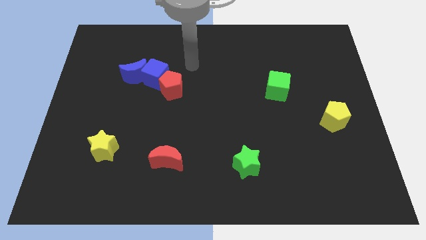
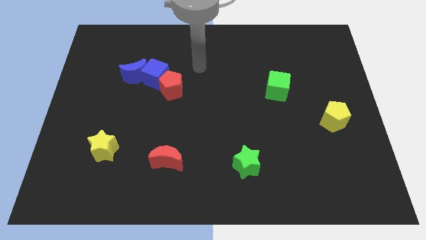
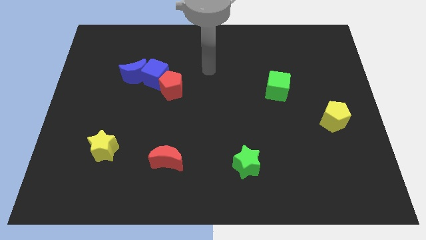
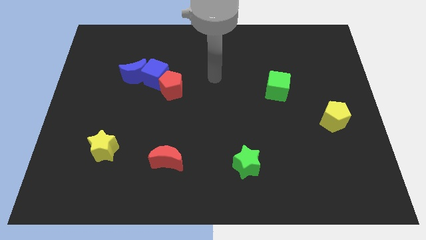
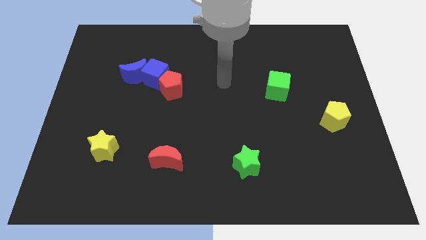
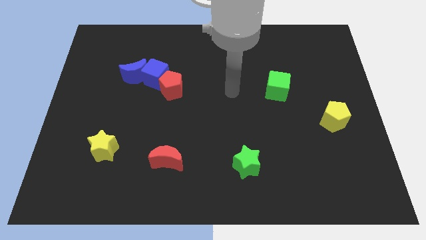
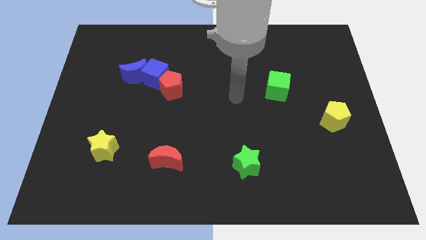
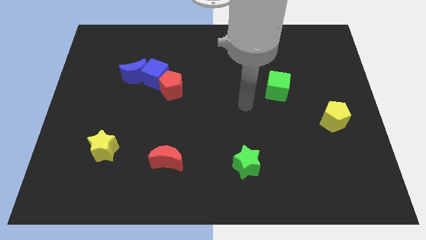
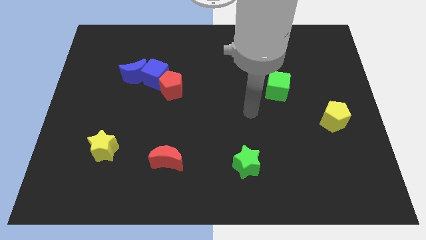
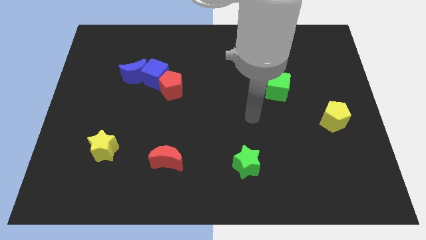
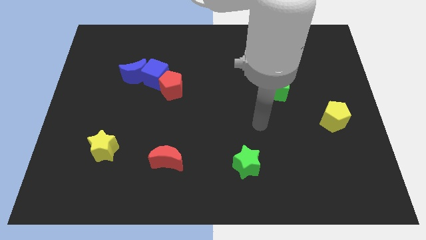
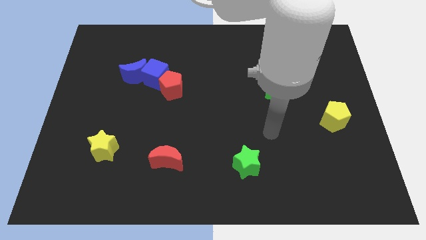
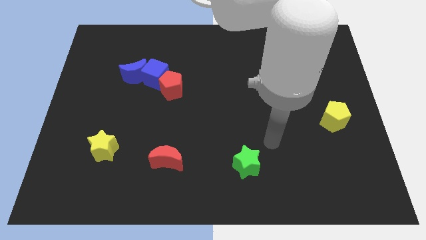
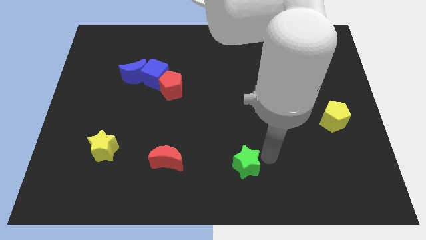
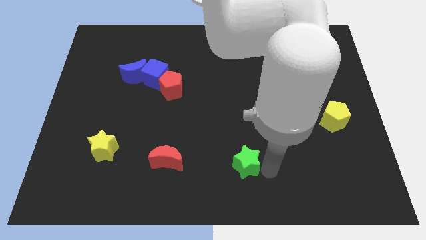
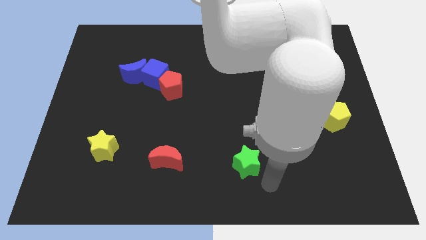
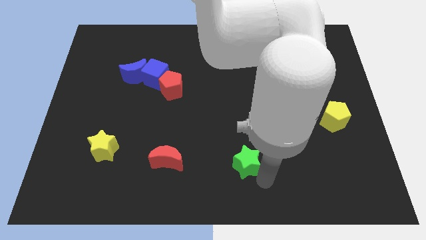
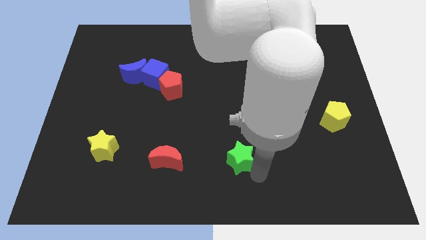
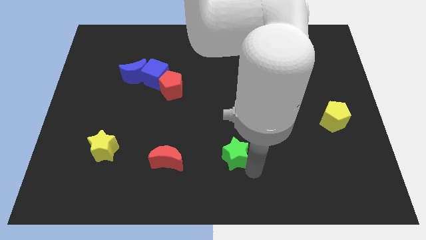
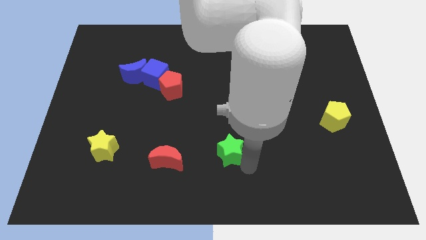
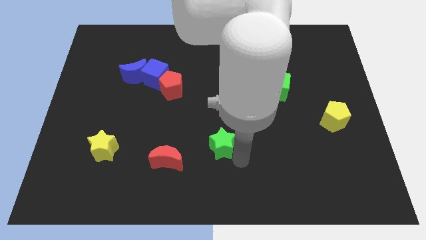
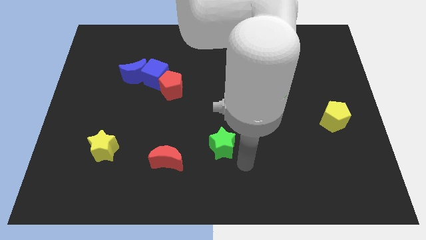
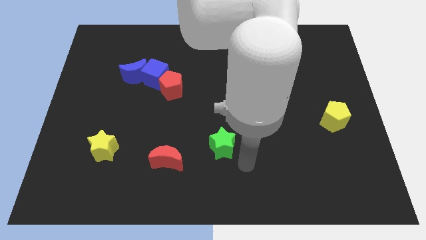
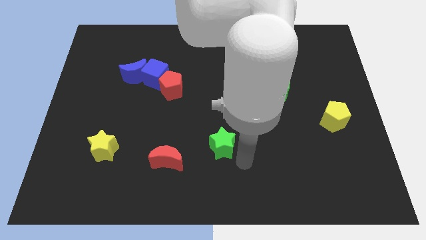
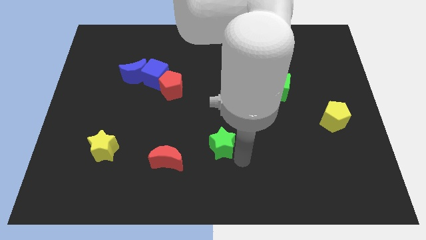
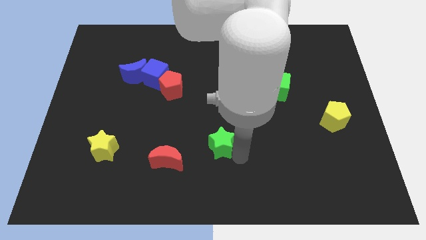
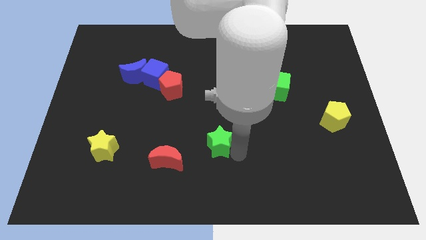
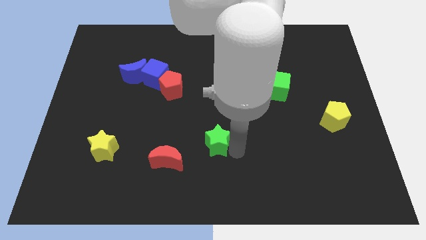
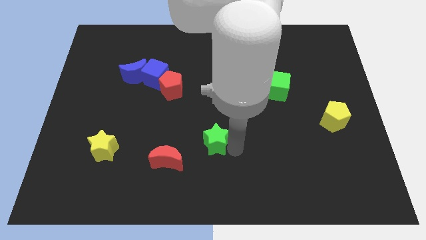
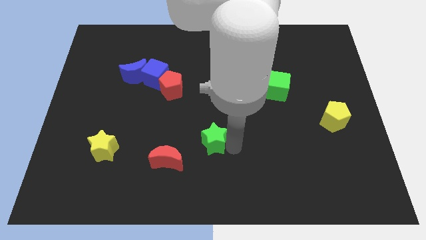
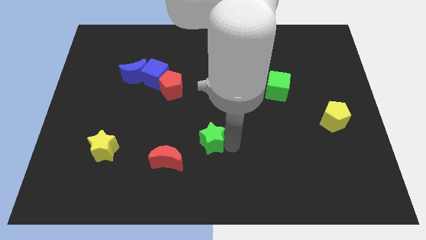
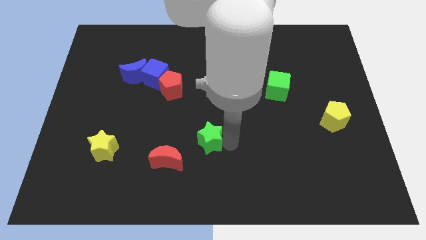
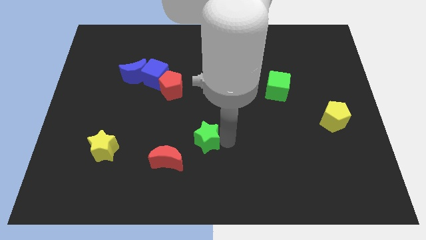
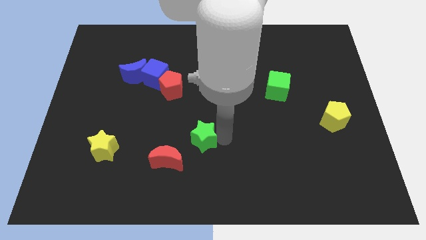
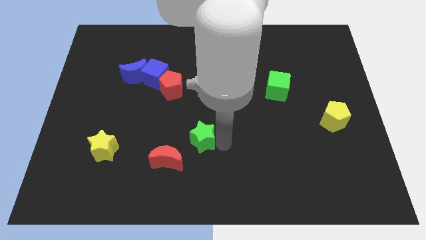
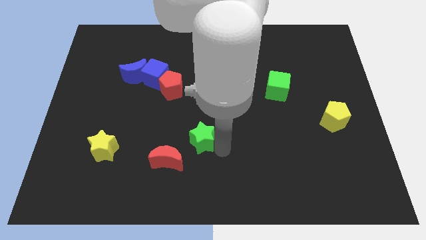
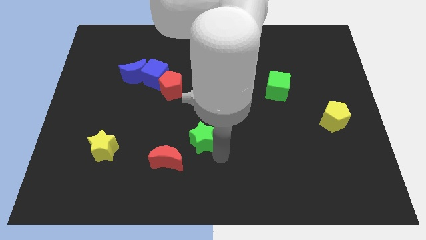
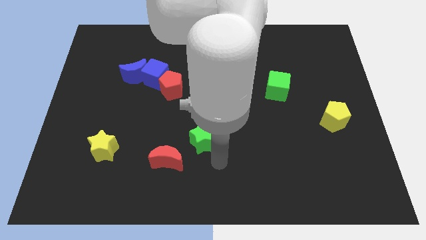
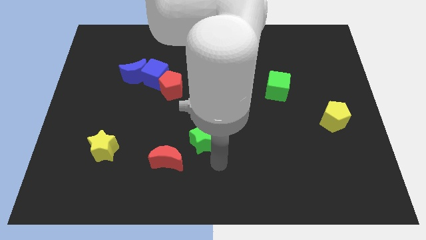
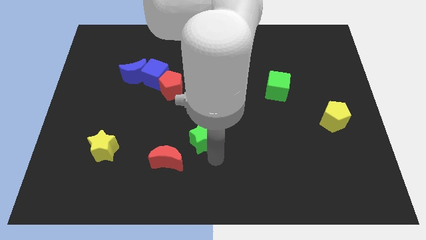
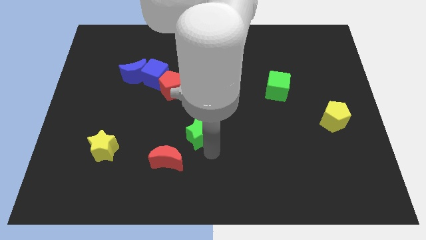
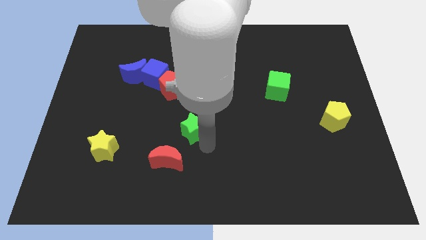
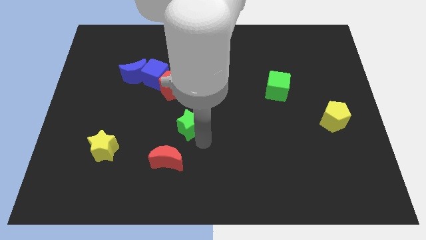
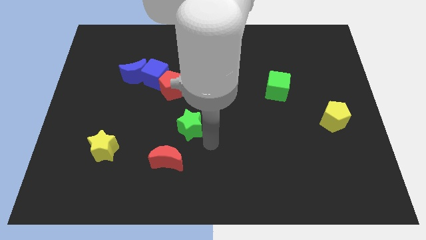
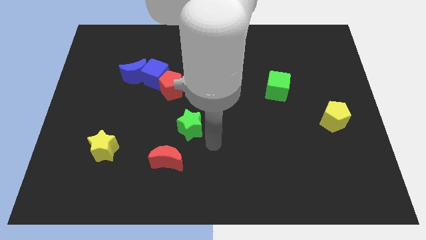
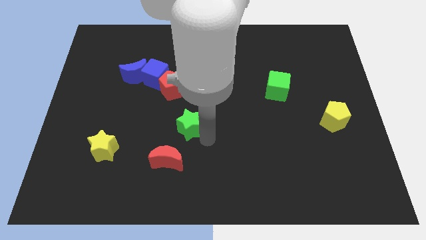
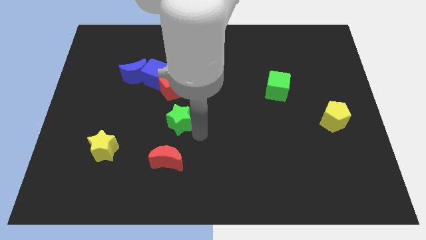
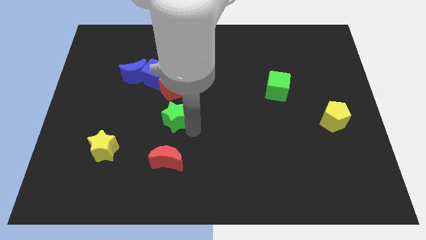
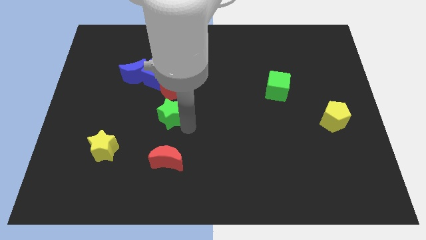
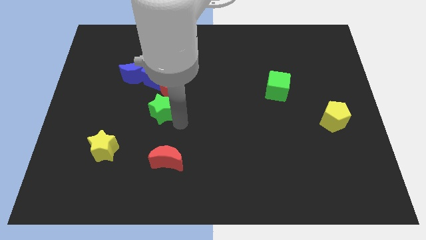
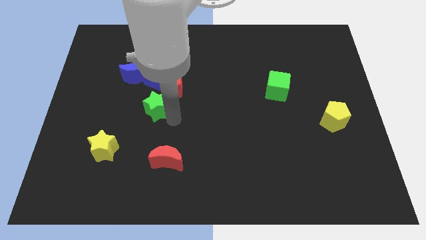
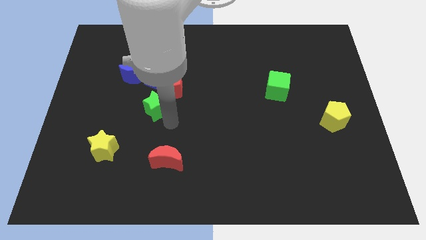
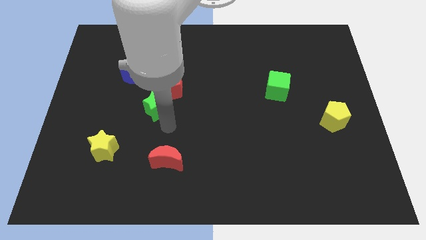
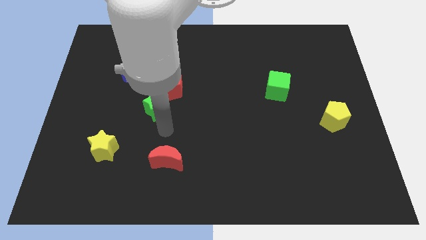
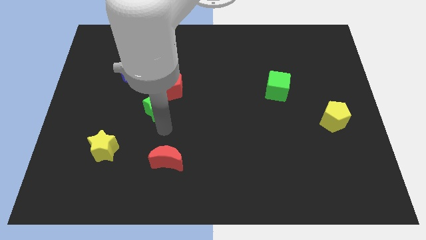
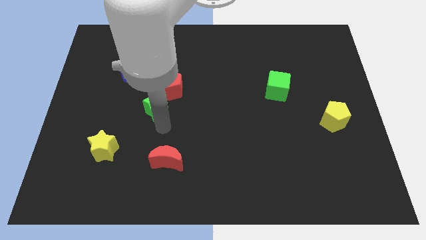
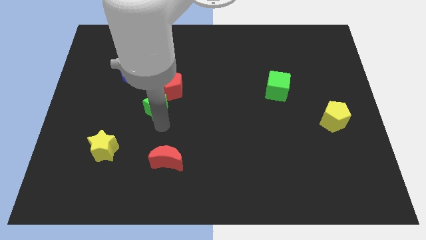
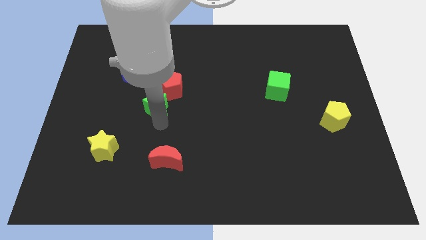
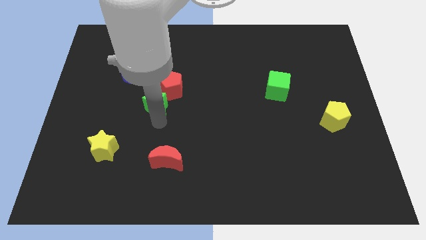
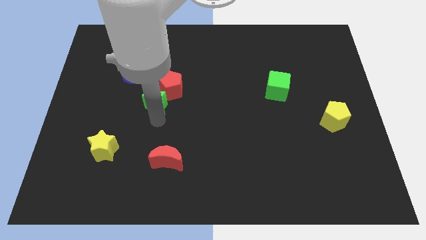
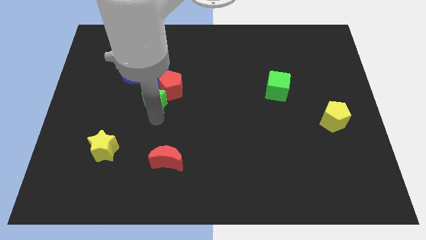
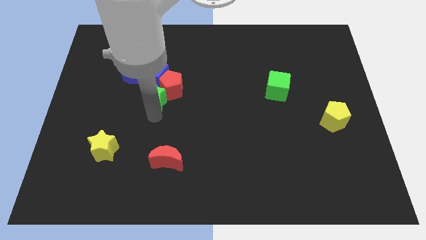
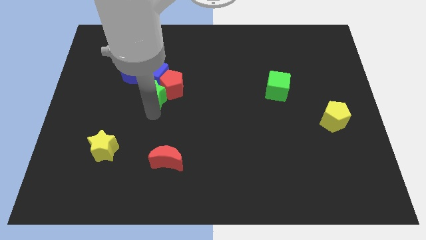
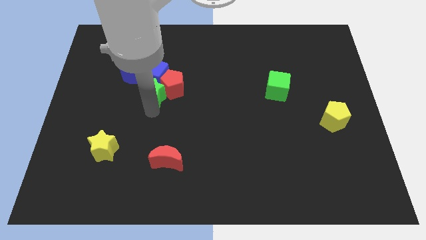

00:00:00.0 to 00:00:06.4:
slide the green star to the blue cube

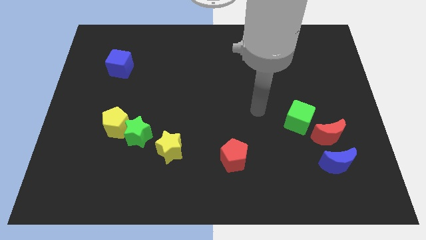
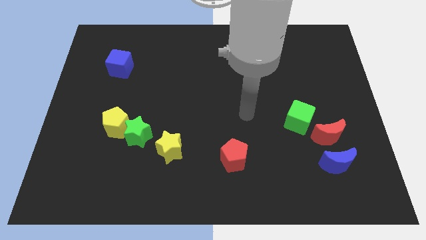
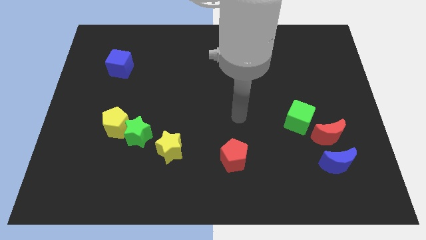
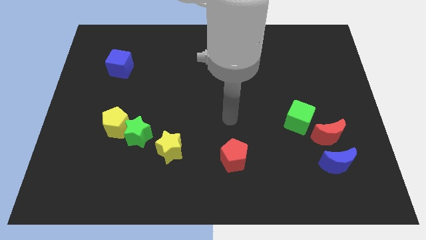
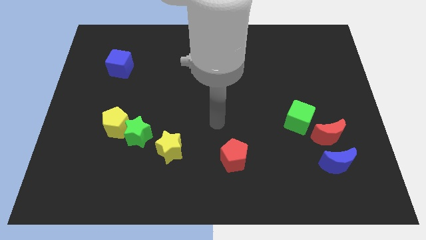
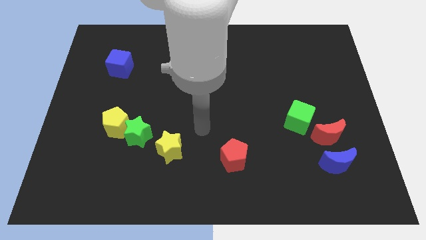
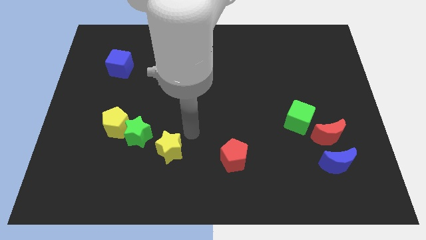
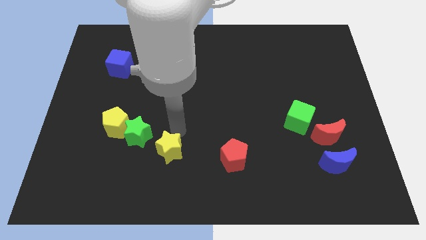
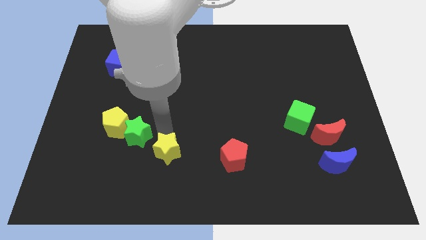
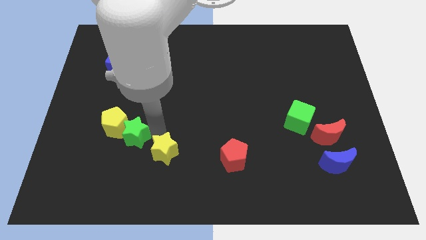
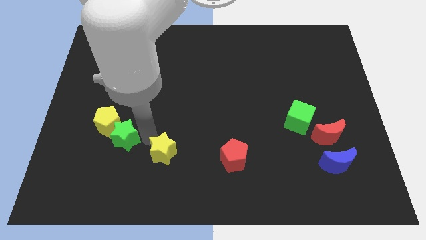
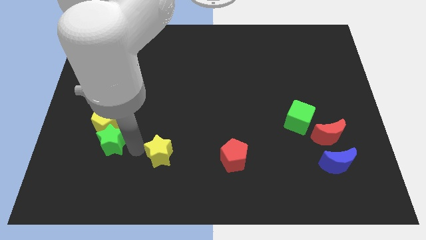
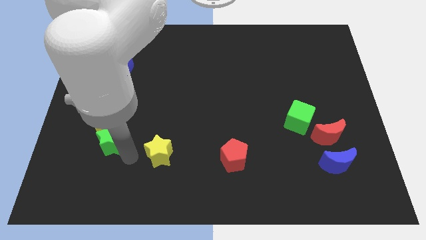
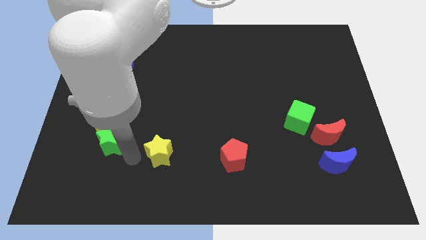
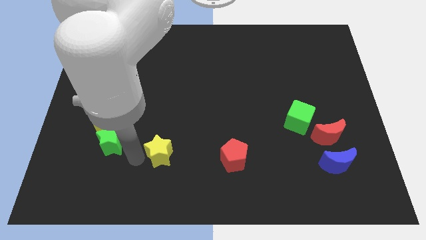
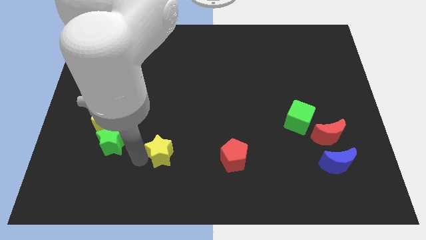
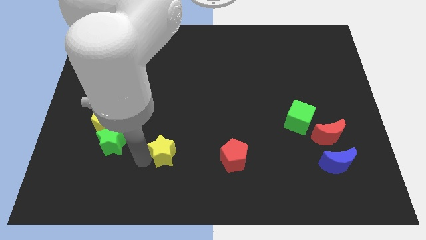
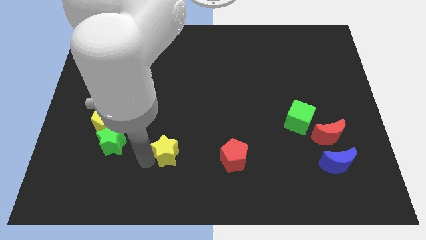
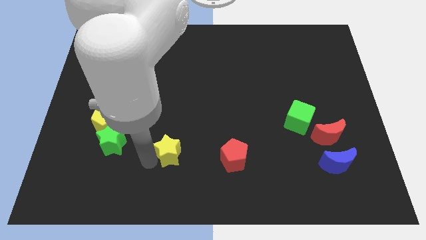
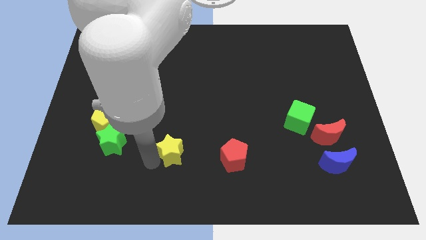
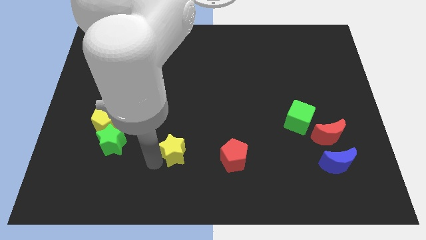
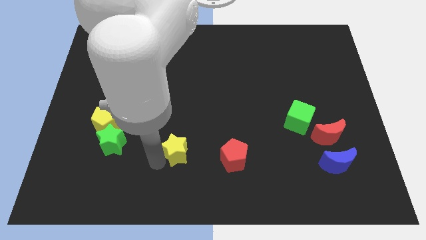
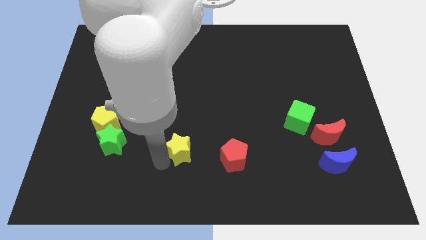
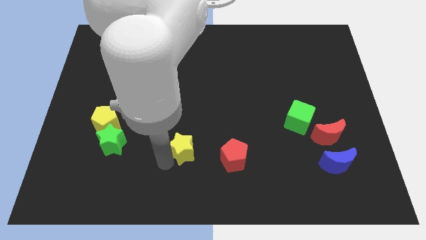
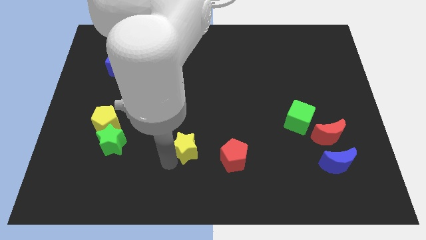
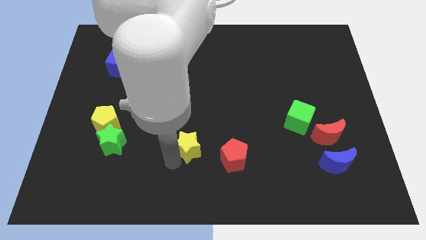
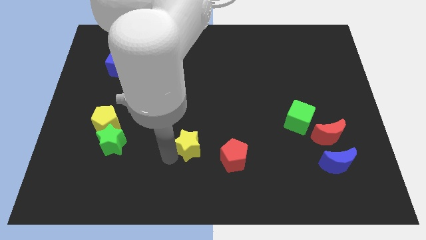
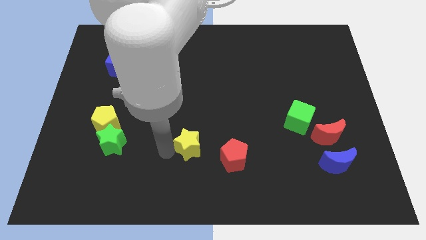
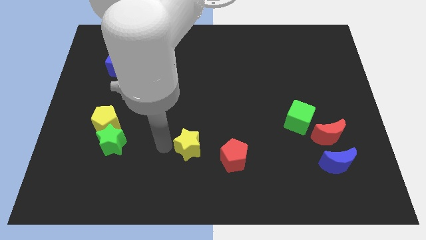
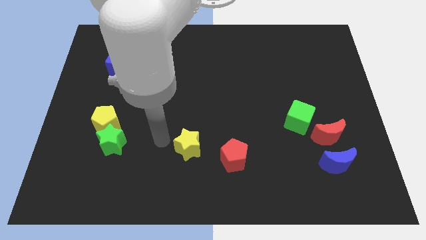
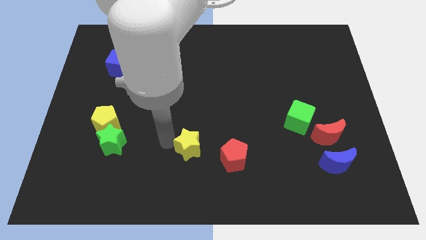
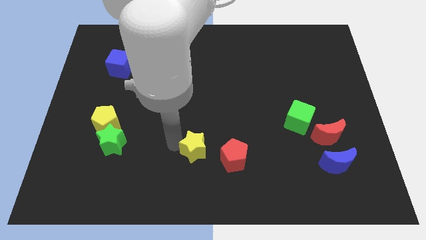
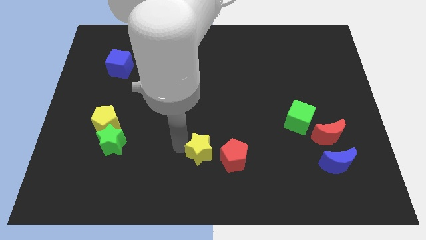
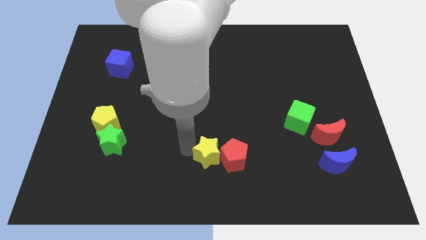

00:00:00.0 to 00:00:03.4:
slide the yellow star towards the red pentagon
